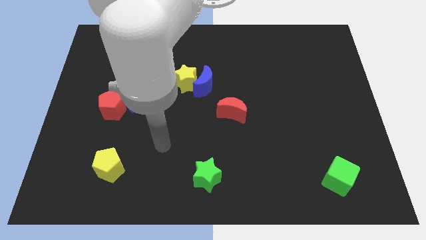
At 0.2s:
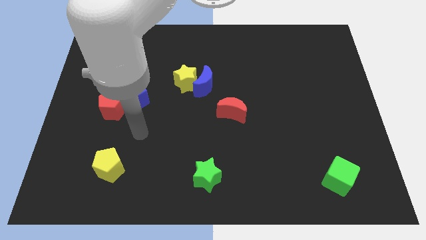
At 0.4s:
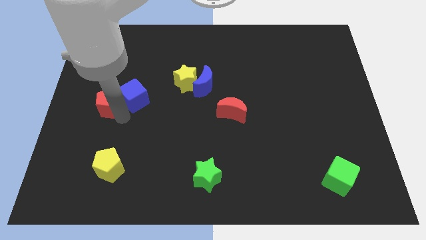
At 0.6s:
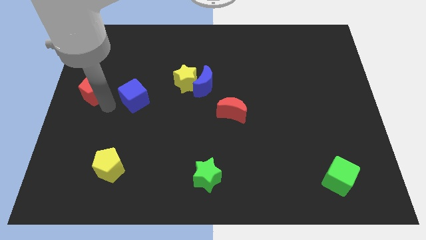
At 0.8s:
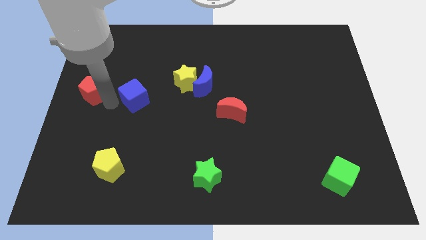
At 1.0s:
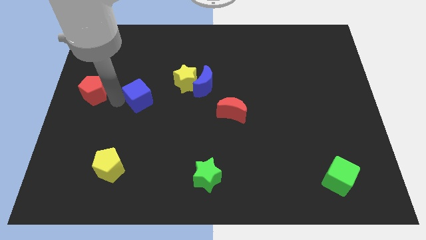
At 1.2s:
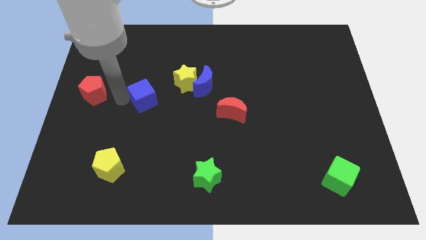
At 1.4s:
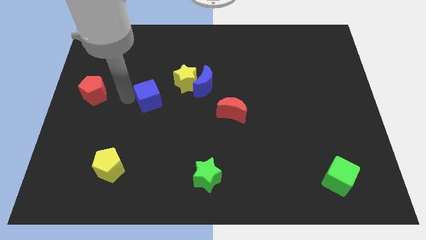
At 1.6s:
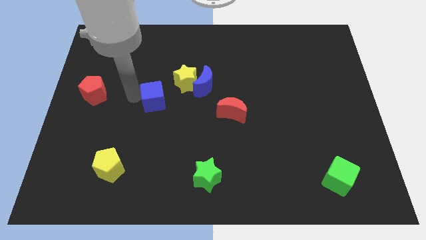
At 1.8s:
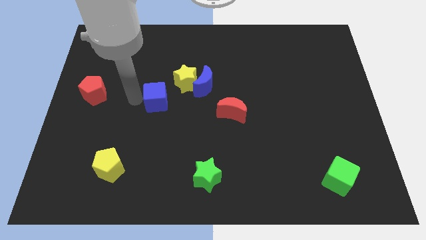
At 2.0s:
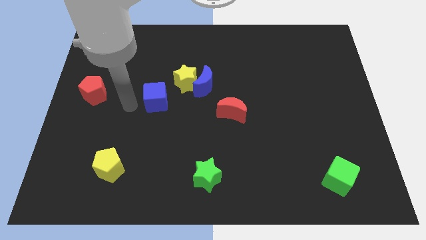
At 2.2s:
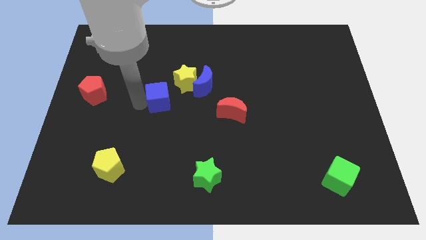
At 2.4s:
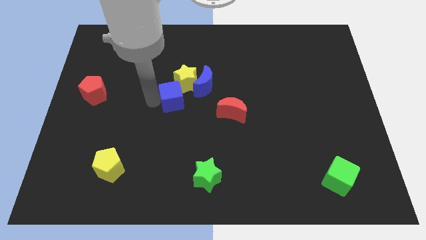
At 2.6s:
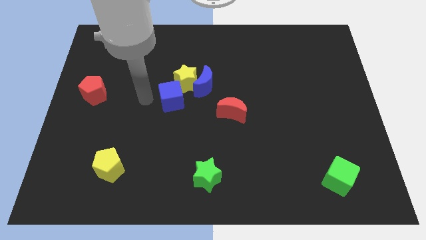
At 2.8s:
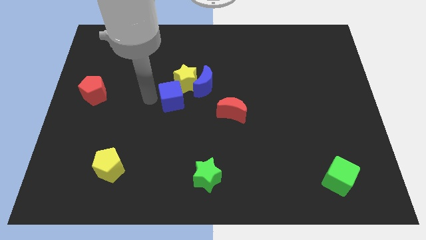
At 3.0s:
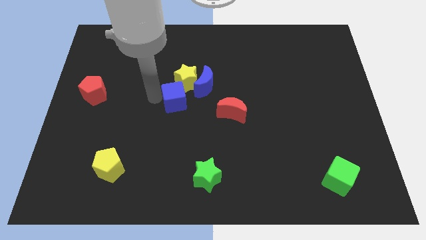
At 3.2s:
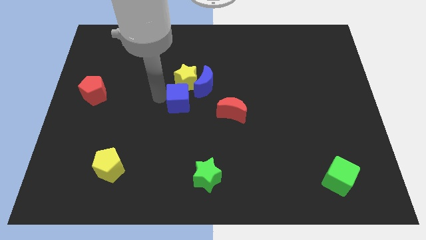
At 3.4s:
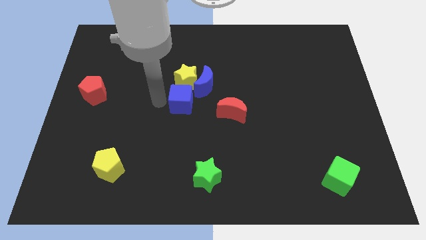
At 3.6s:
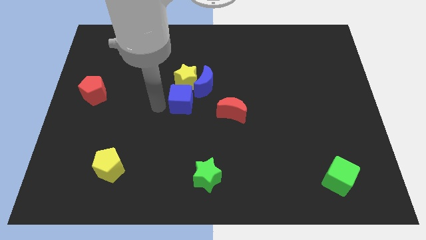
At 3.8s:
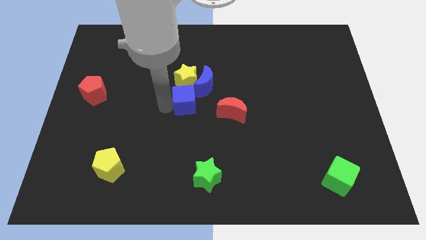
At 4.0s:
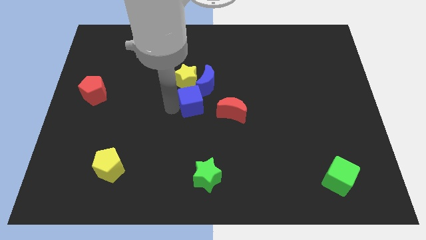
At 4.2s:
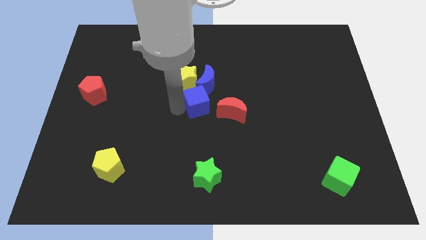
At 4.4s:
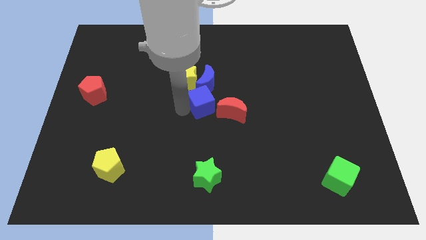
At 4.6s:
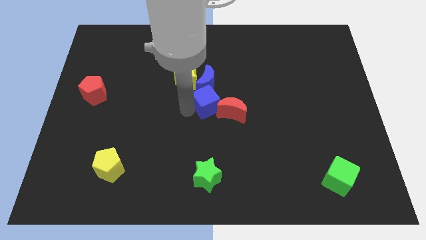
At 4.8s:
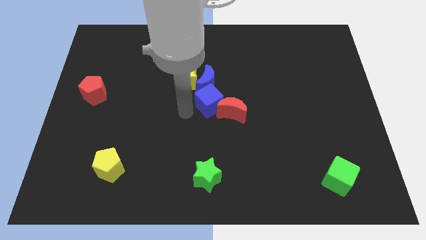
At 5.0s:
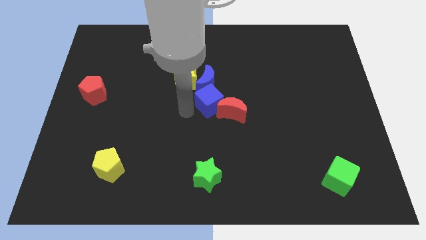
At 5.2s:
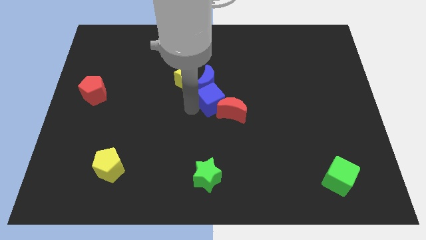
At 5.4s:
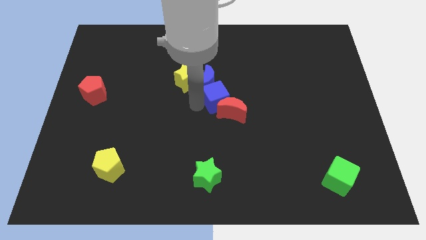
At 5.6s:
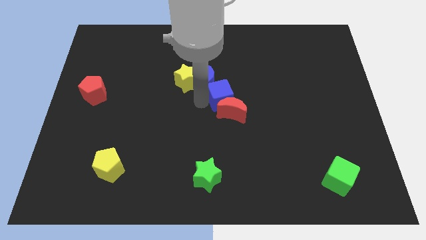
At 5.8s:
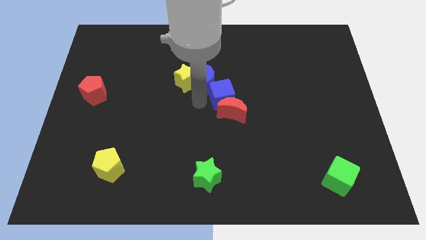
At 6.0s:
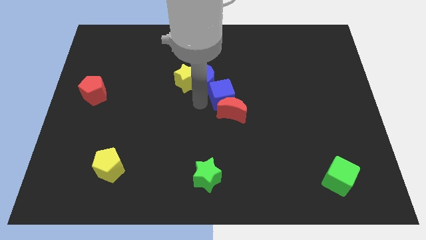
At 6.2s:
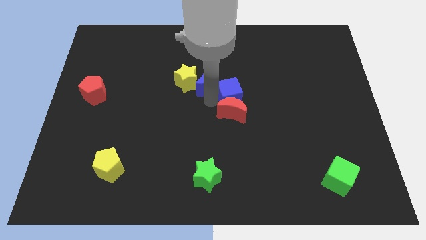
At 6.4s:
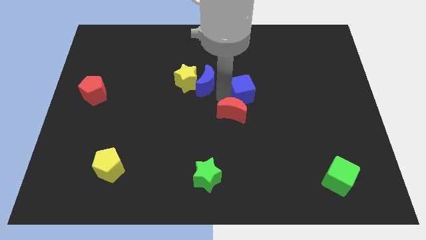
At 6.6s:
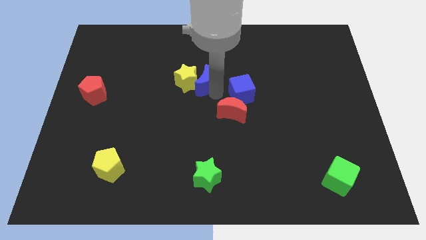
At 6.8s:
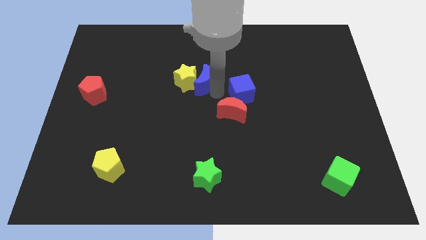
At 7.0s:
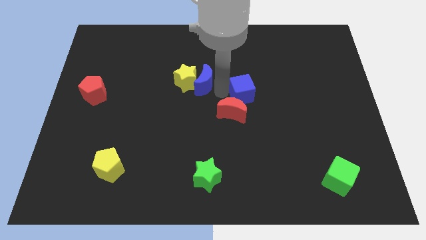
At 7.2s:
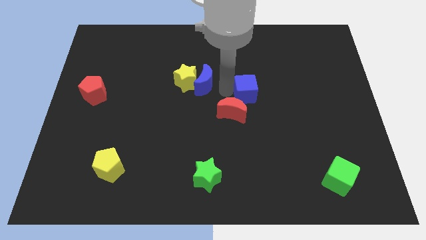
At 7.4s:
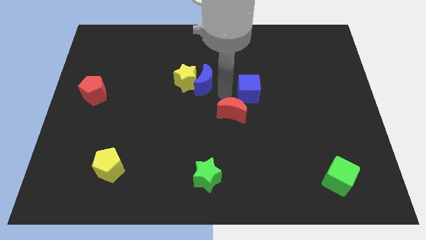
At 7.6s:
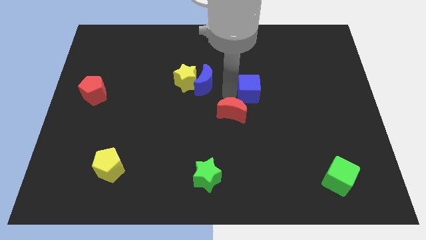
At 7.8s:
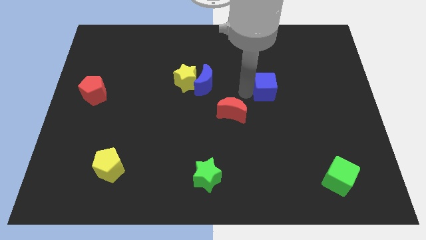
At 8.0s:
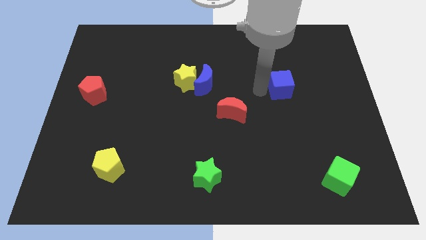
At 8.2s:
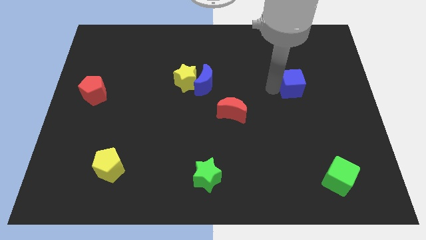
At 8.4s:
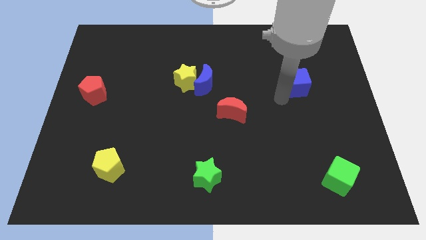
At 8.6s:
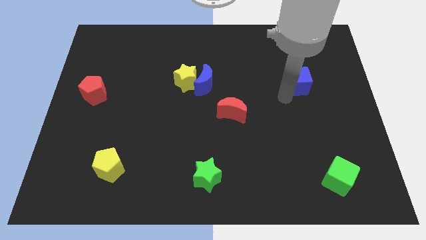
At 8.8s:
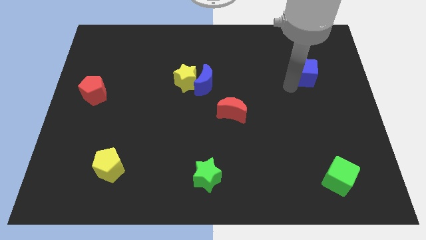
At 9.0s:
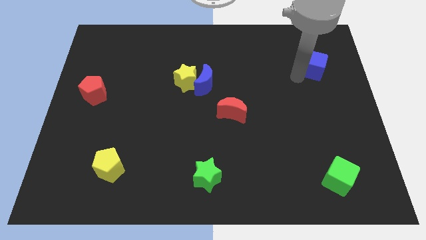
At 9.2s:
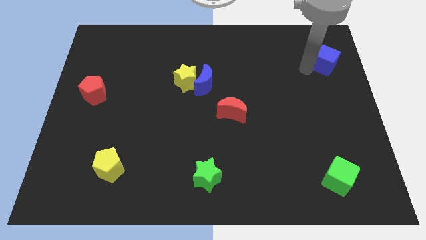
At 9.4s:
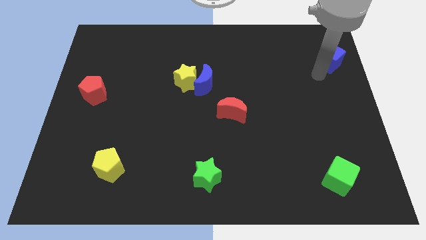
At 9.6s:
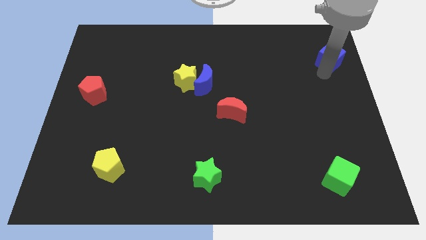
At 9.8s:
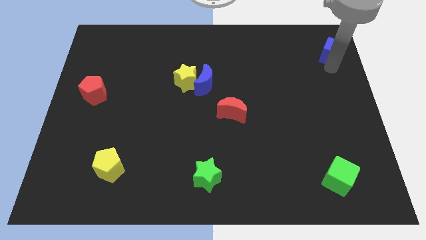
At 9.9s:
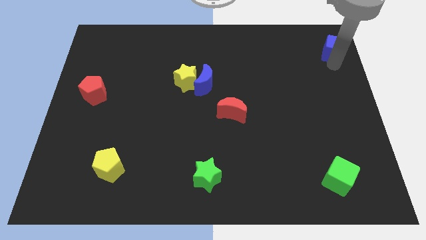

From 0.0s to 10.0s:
slide the blue cube to the top right of the board

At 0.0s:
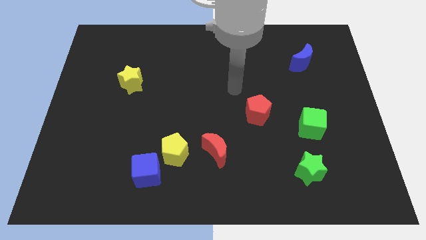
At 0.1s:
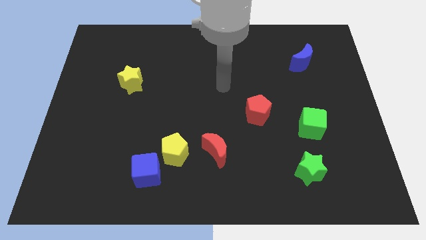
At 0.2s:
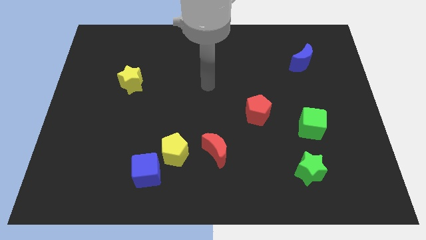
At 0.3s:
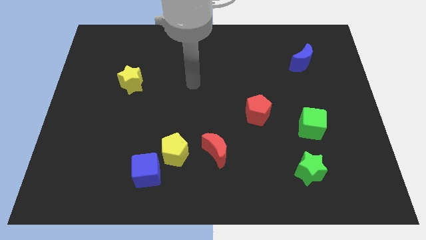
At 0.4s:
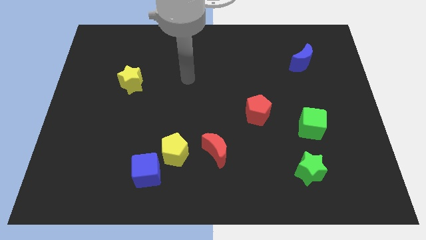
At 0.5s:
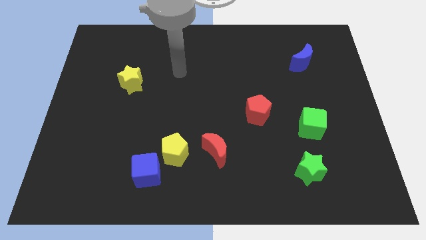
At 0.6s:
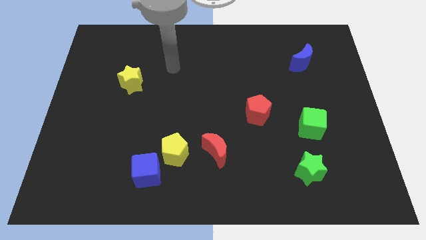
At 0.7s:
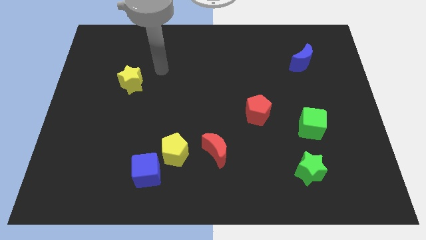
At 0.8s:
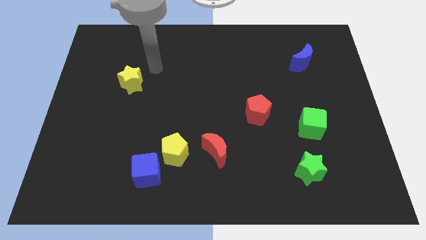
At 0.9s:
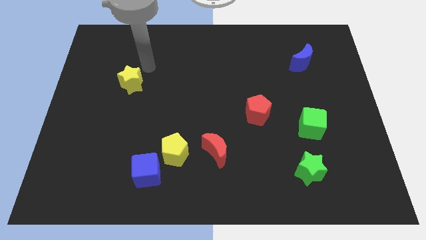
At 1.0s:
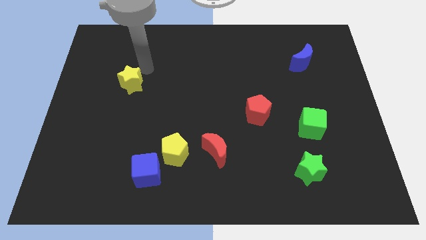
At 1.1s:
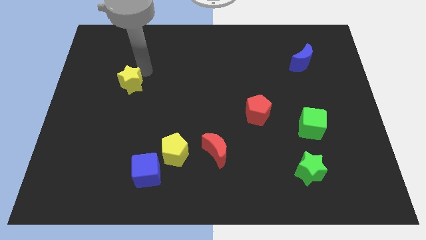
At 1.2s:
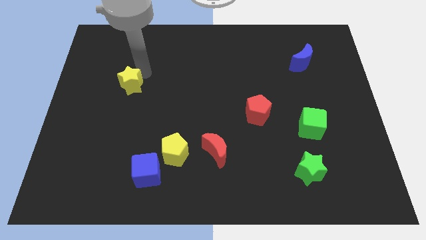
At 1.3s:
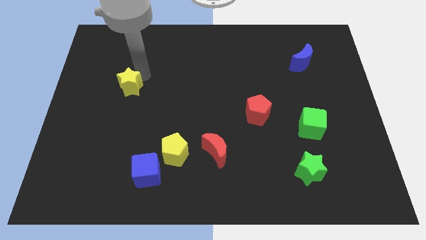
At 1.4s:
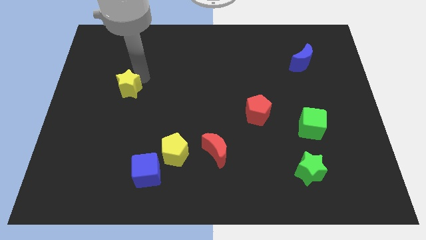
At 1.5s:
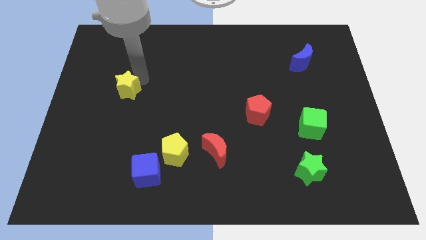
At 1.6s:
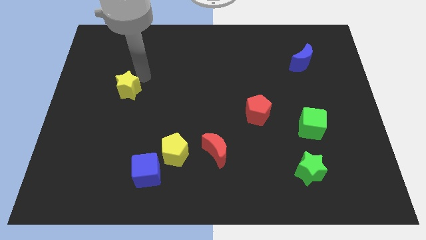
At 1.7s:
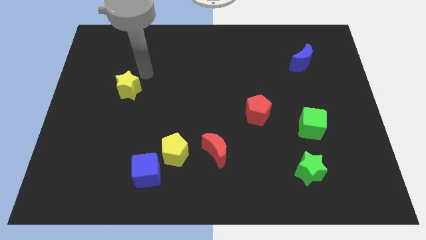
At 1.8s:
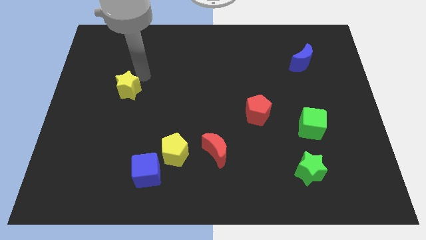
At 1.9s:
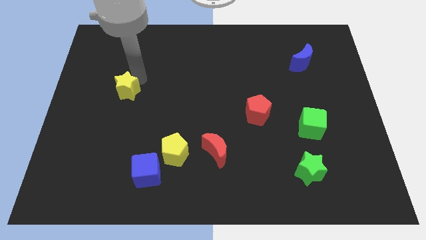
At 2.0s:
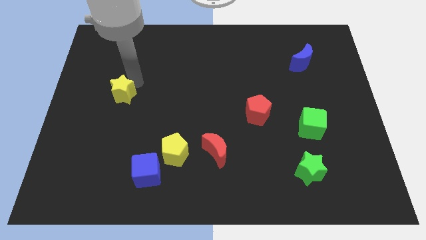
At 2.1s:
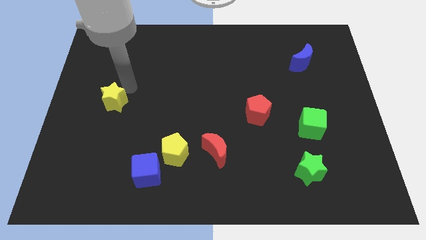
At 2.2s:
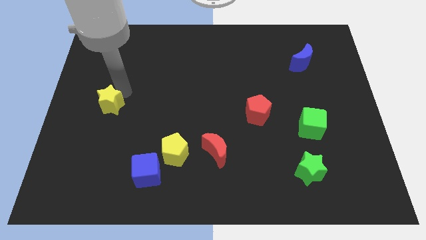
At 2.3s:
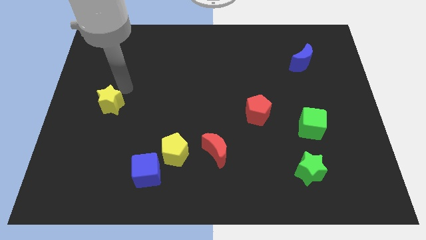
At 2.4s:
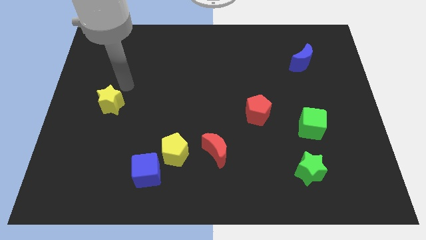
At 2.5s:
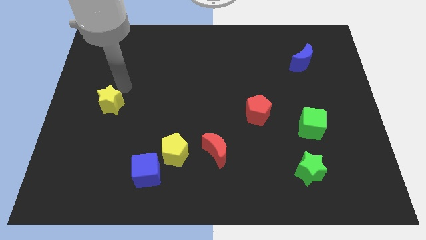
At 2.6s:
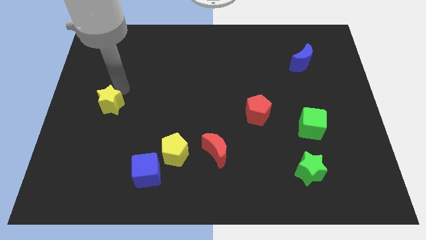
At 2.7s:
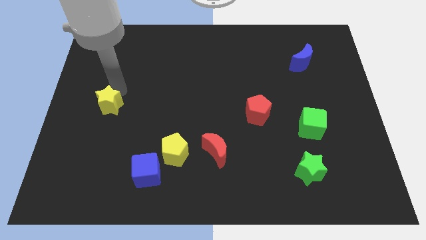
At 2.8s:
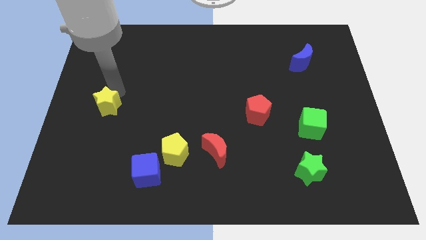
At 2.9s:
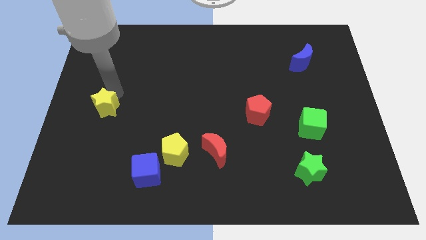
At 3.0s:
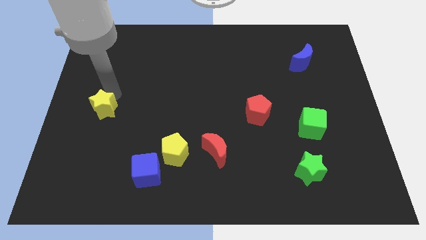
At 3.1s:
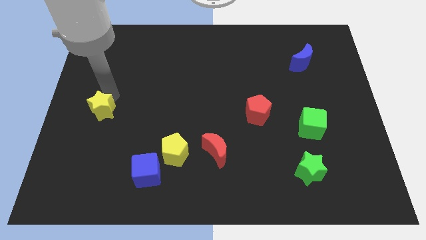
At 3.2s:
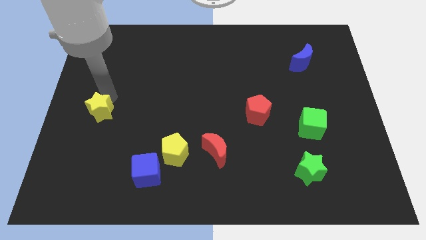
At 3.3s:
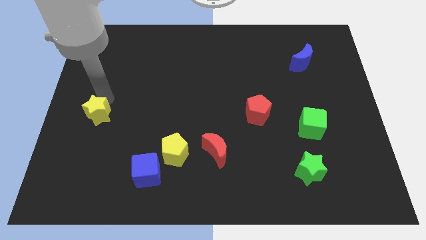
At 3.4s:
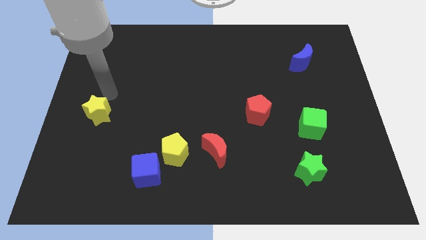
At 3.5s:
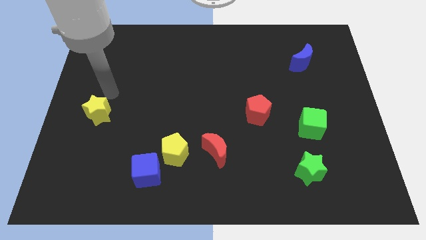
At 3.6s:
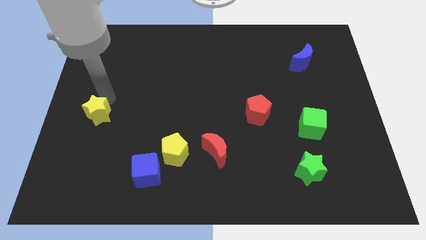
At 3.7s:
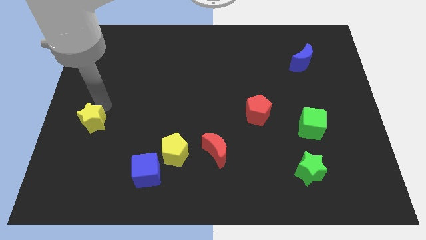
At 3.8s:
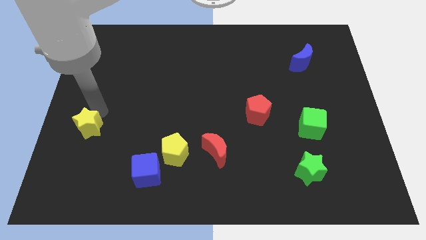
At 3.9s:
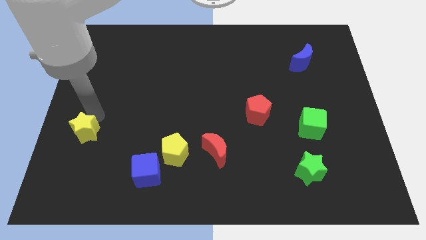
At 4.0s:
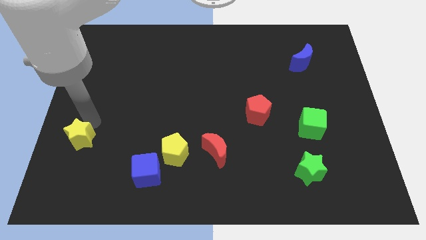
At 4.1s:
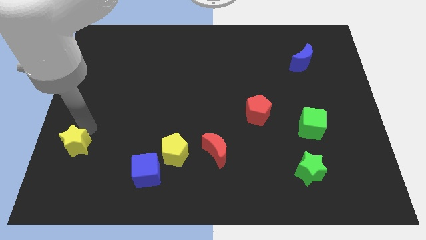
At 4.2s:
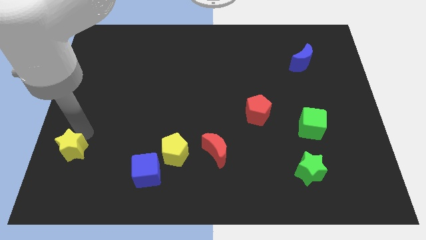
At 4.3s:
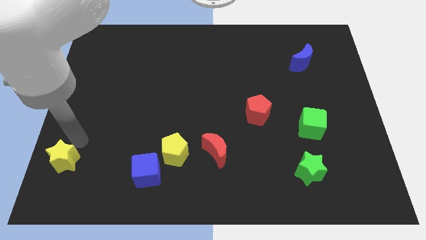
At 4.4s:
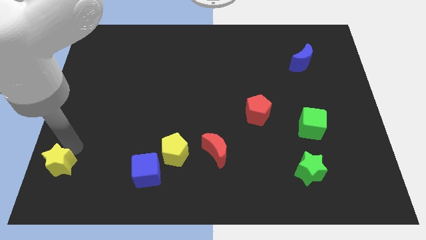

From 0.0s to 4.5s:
put the yellow star to the bottom left
